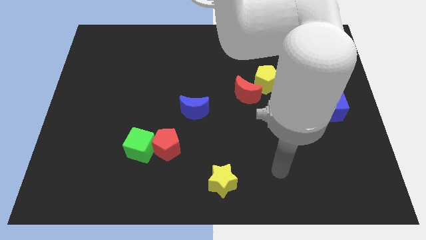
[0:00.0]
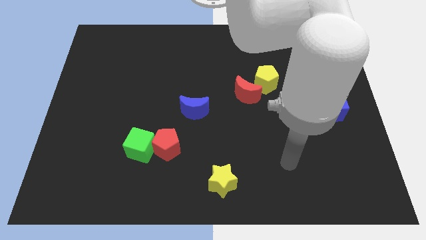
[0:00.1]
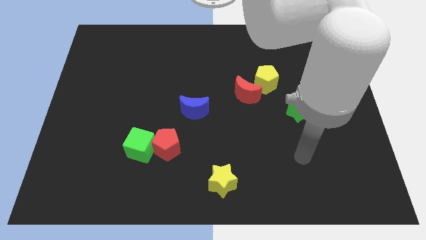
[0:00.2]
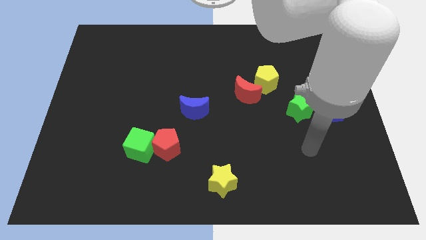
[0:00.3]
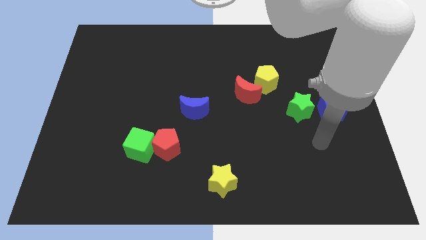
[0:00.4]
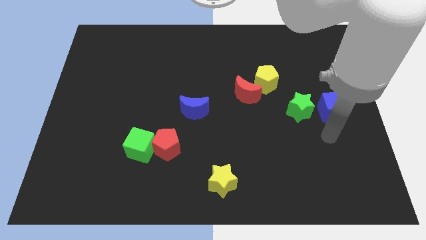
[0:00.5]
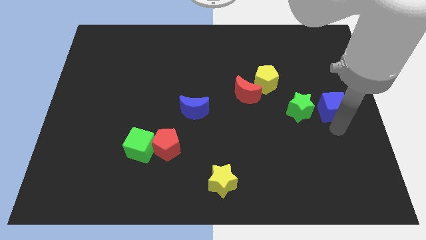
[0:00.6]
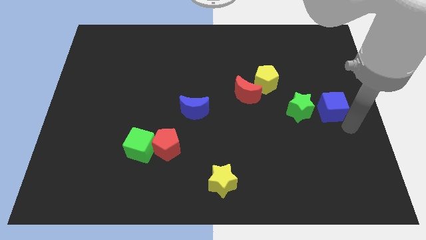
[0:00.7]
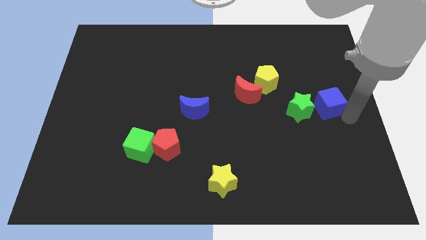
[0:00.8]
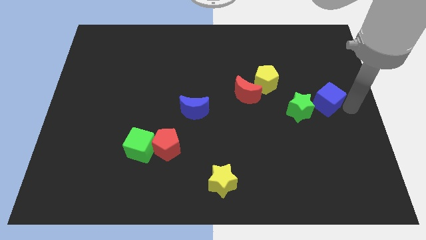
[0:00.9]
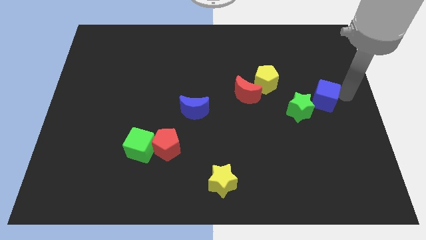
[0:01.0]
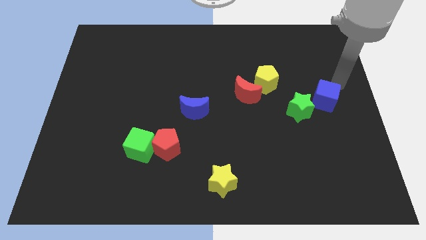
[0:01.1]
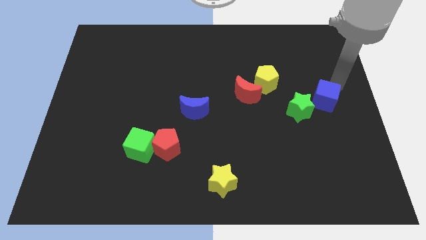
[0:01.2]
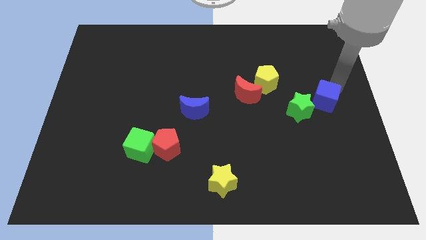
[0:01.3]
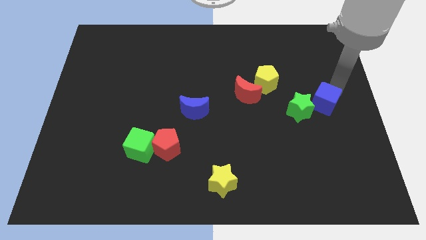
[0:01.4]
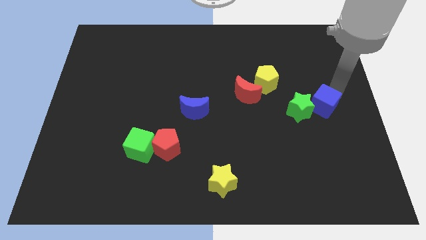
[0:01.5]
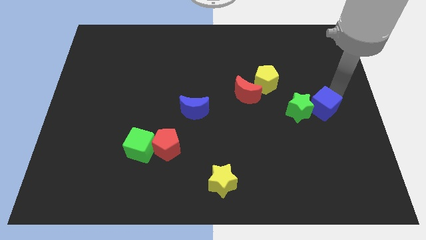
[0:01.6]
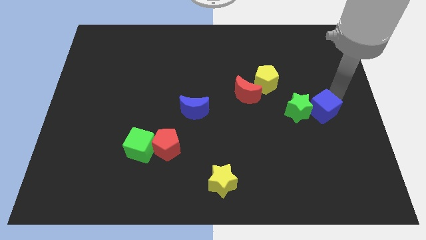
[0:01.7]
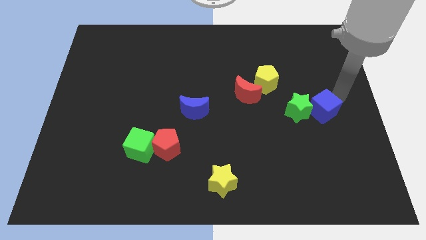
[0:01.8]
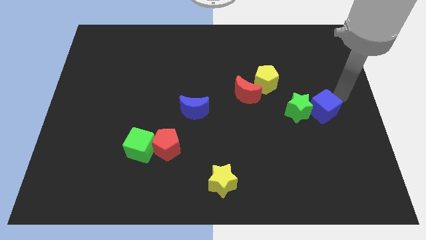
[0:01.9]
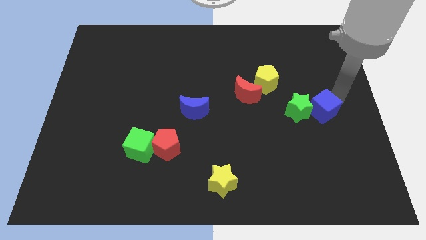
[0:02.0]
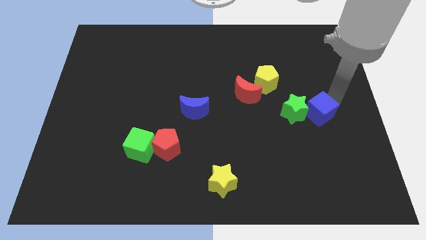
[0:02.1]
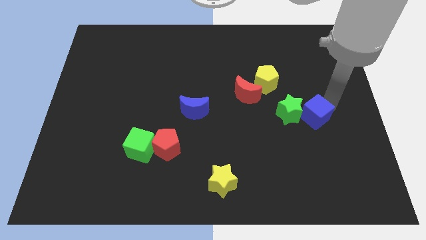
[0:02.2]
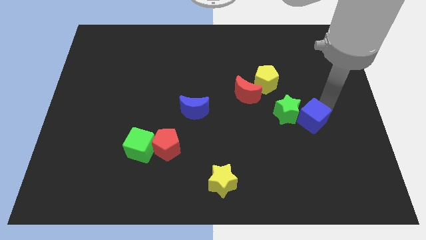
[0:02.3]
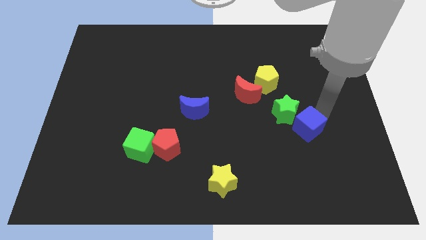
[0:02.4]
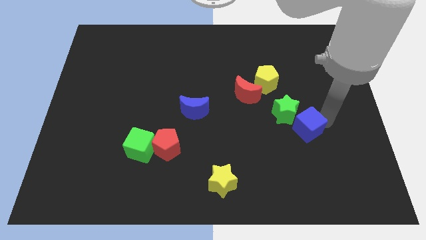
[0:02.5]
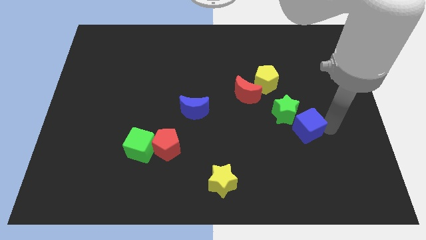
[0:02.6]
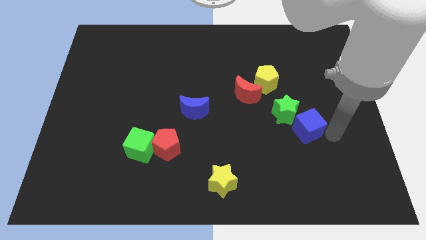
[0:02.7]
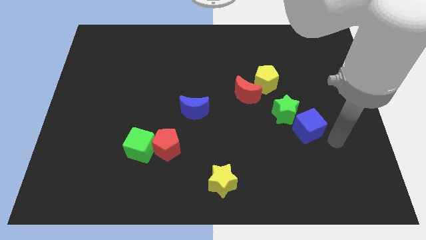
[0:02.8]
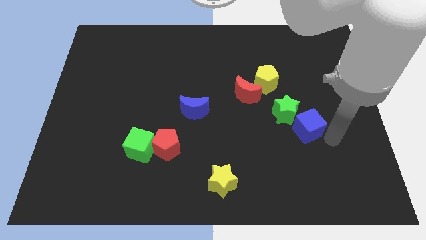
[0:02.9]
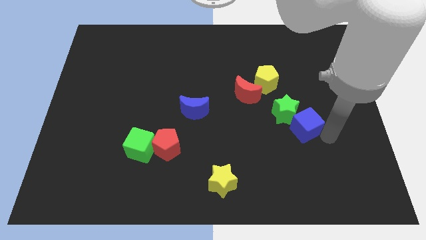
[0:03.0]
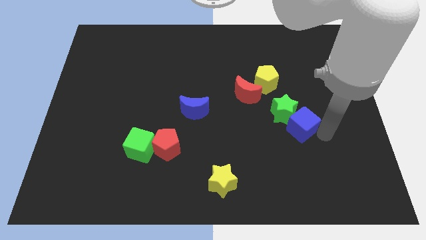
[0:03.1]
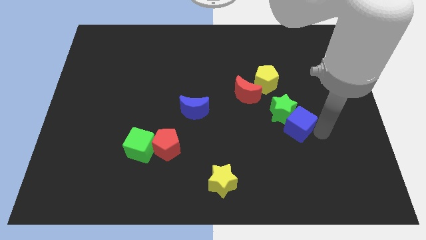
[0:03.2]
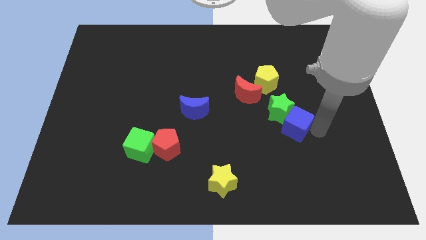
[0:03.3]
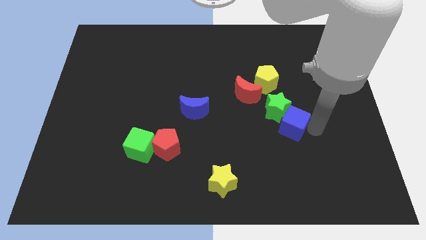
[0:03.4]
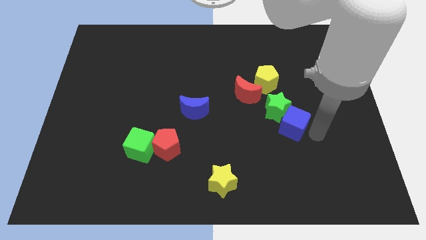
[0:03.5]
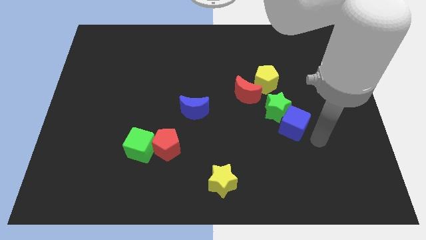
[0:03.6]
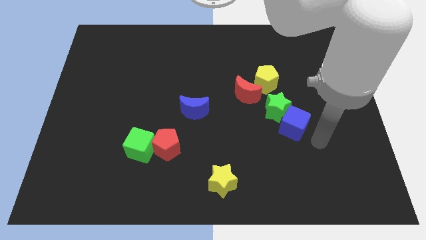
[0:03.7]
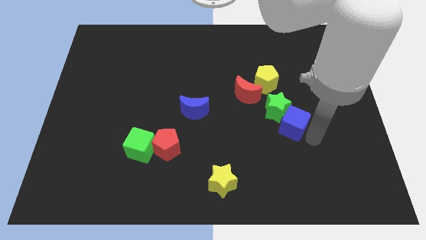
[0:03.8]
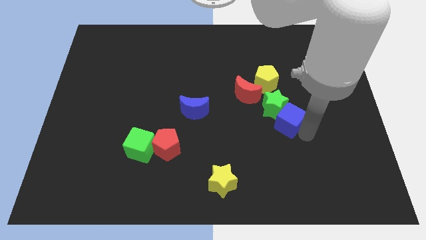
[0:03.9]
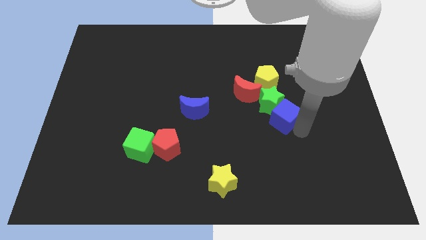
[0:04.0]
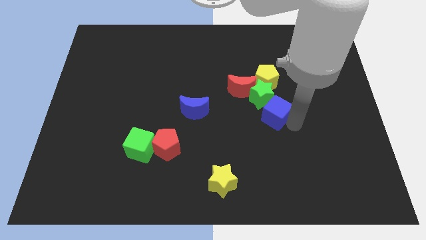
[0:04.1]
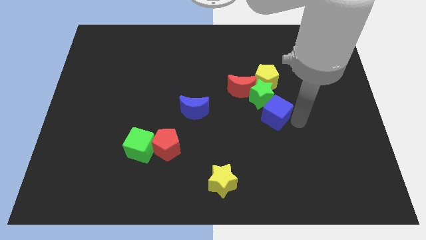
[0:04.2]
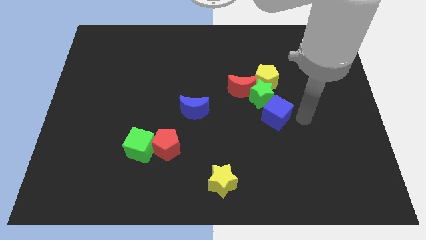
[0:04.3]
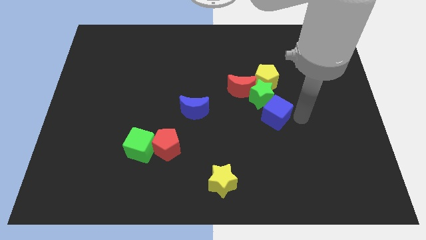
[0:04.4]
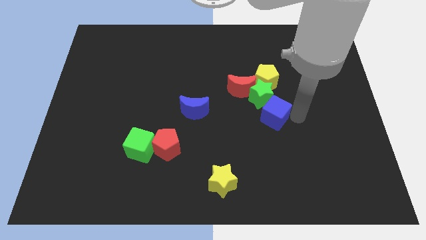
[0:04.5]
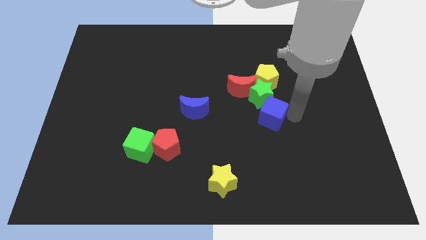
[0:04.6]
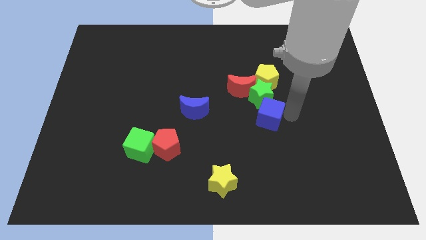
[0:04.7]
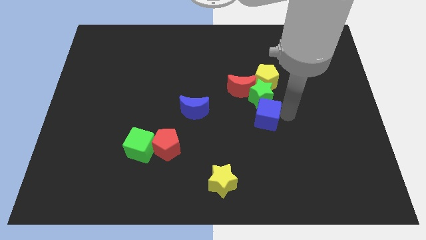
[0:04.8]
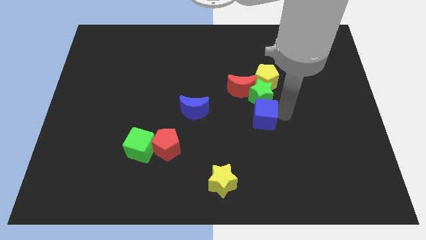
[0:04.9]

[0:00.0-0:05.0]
push the blue cube to the middle of the board
